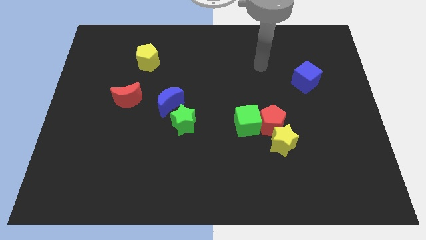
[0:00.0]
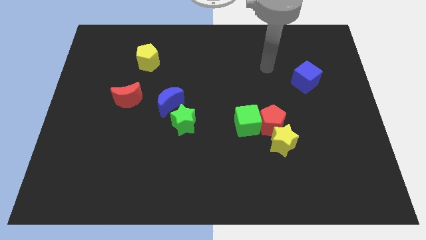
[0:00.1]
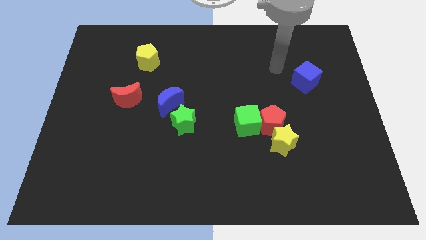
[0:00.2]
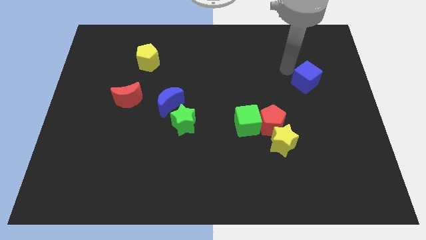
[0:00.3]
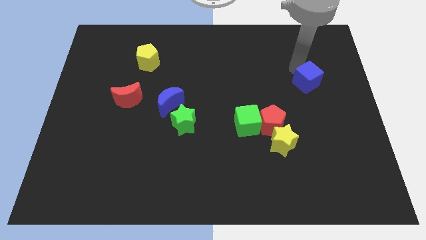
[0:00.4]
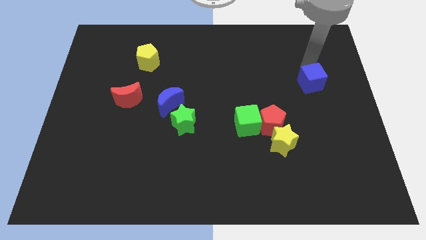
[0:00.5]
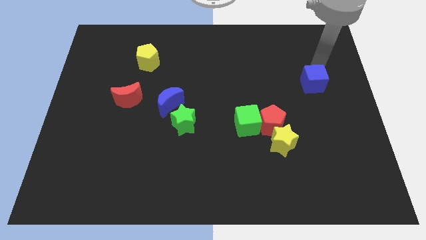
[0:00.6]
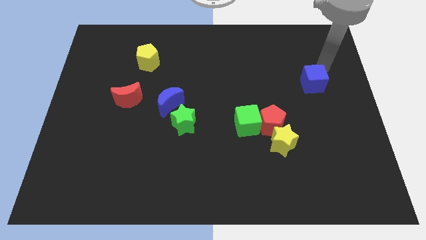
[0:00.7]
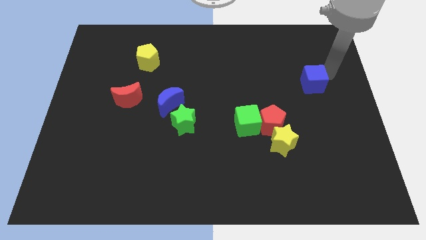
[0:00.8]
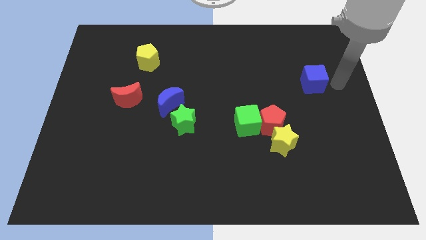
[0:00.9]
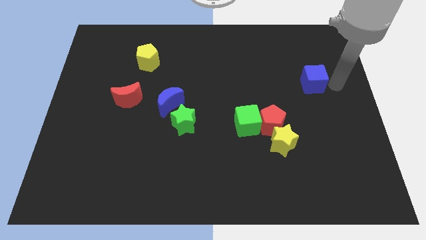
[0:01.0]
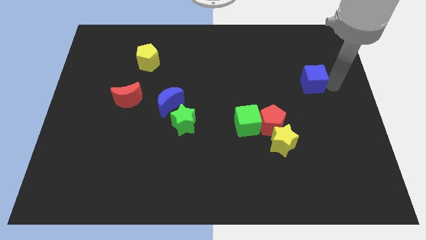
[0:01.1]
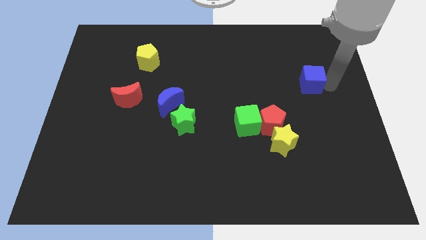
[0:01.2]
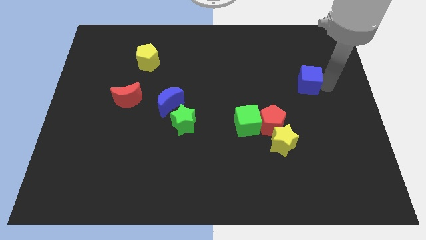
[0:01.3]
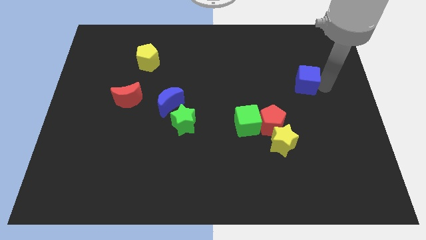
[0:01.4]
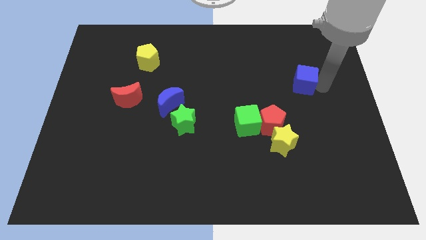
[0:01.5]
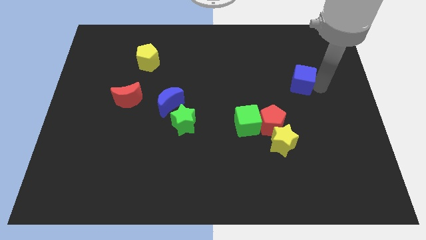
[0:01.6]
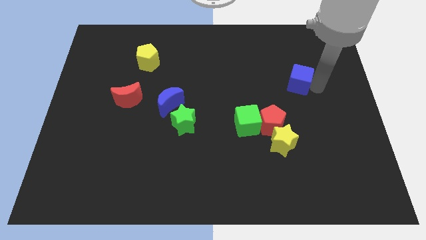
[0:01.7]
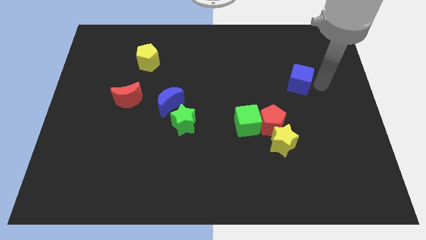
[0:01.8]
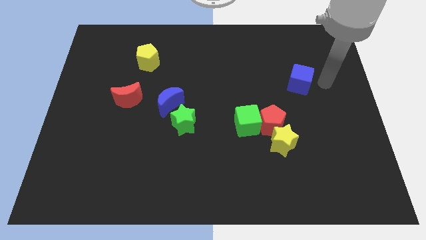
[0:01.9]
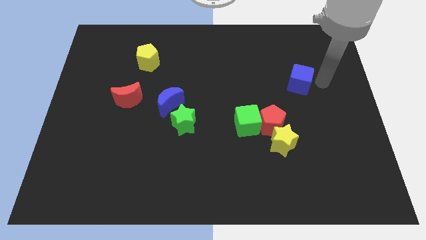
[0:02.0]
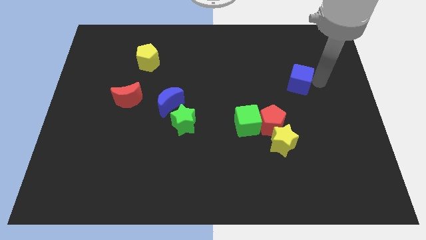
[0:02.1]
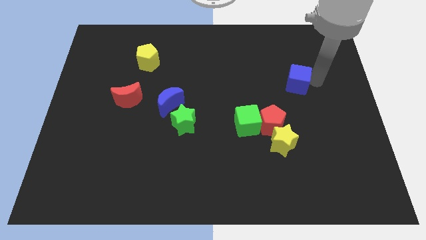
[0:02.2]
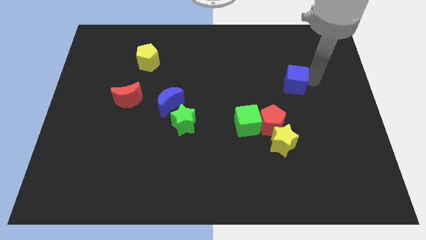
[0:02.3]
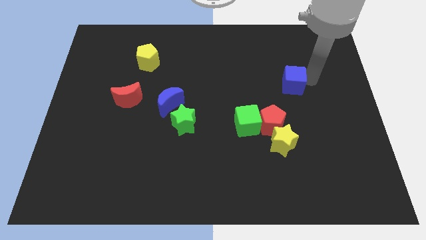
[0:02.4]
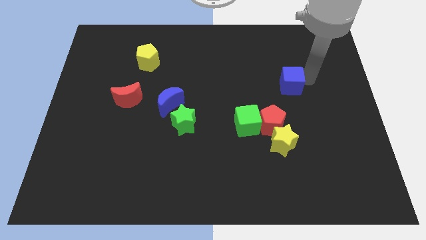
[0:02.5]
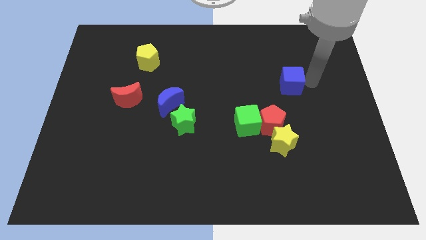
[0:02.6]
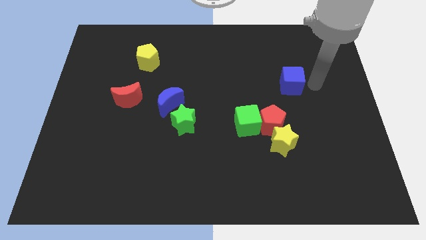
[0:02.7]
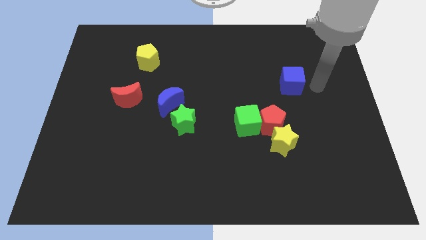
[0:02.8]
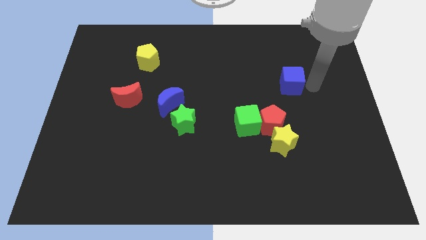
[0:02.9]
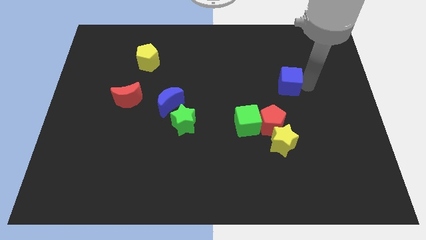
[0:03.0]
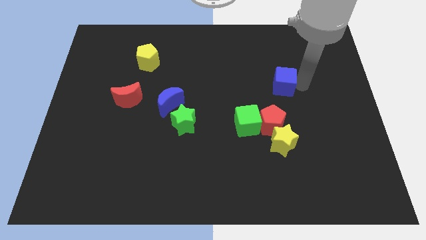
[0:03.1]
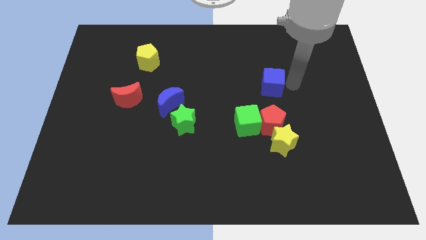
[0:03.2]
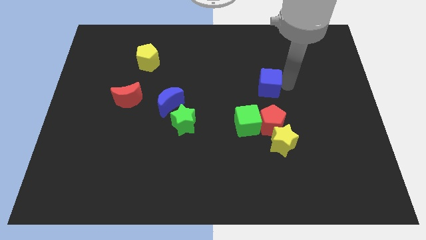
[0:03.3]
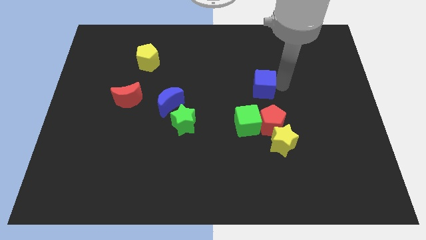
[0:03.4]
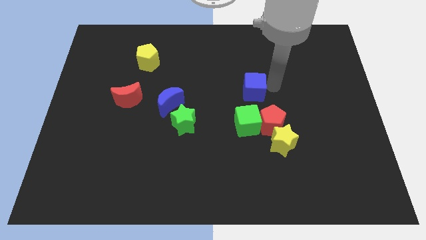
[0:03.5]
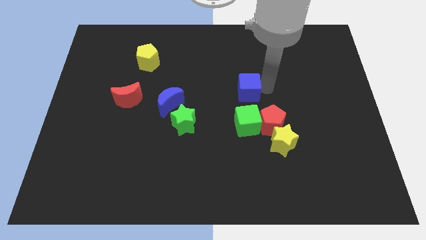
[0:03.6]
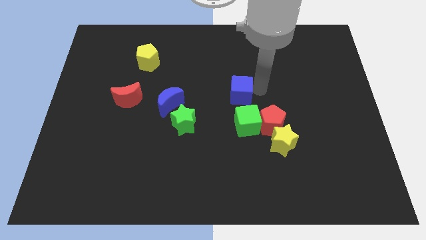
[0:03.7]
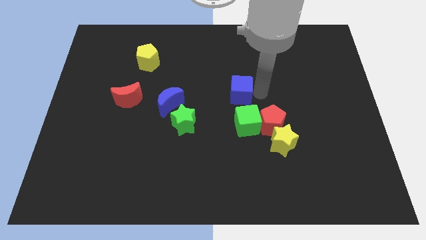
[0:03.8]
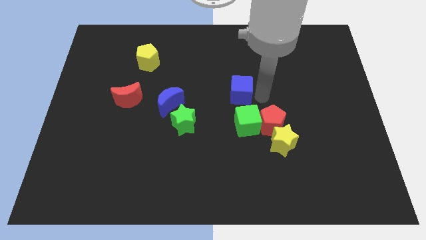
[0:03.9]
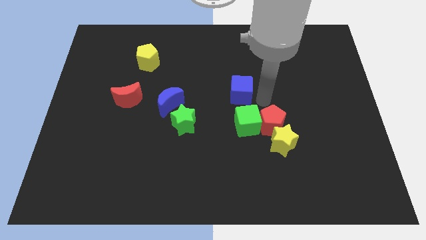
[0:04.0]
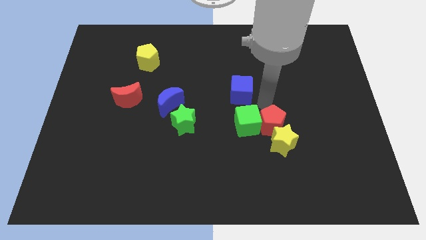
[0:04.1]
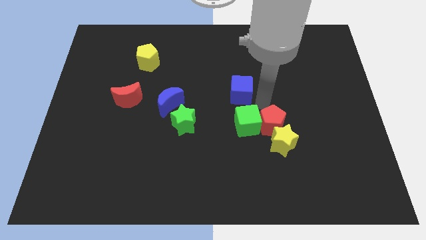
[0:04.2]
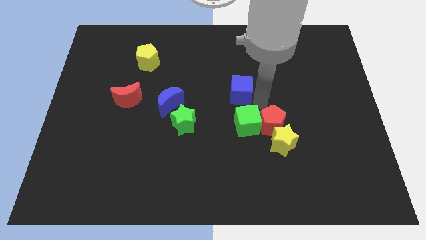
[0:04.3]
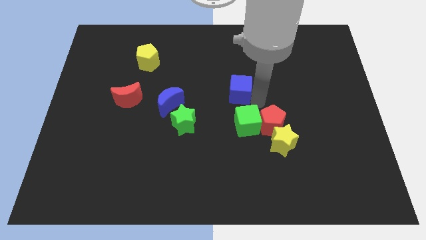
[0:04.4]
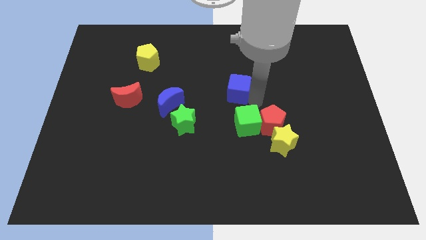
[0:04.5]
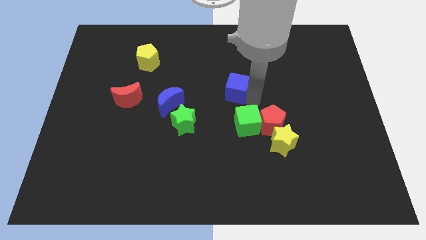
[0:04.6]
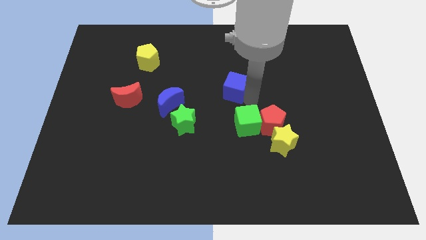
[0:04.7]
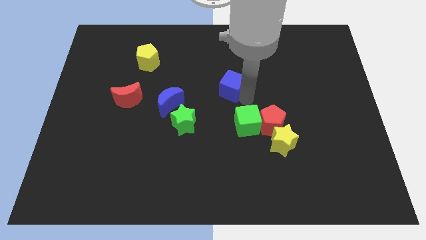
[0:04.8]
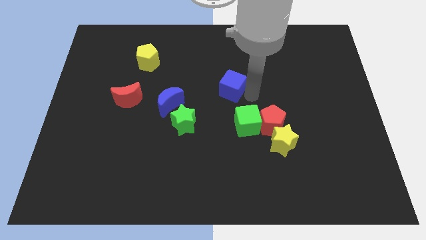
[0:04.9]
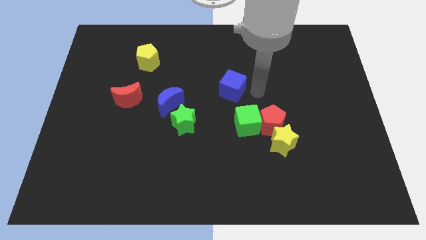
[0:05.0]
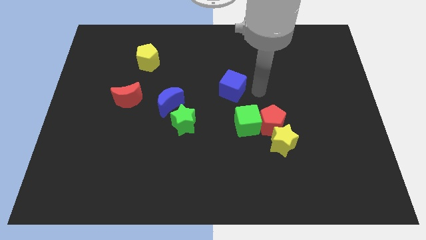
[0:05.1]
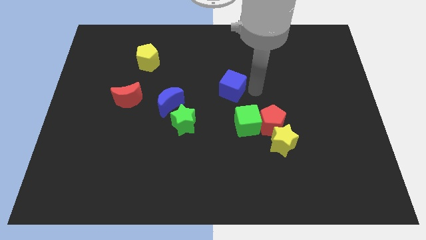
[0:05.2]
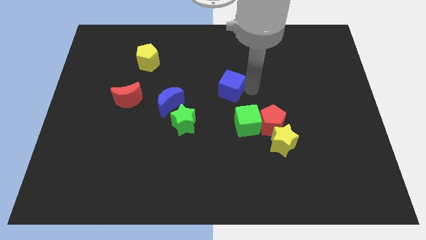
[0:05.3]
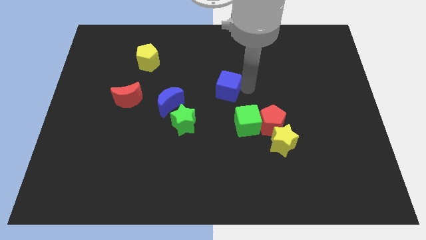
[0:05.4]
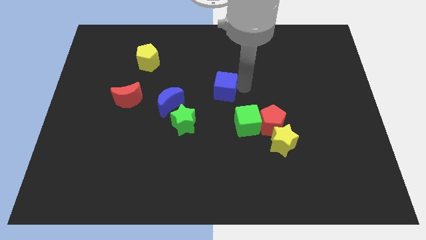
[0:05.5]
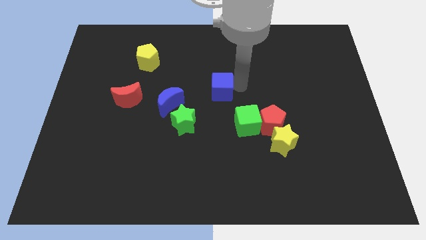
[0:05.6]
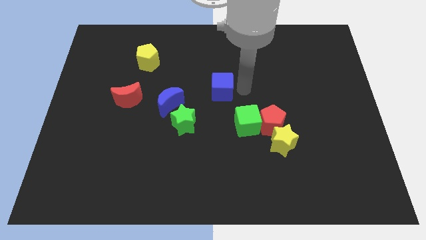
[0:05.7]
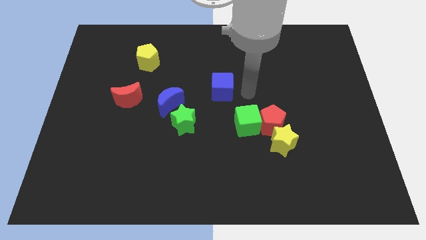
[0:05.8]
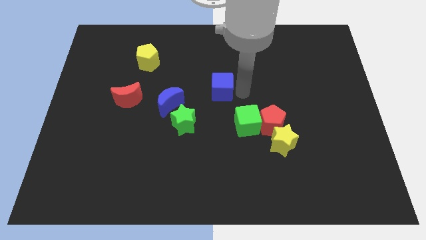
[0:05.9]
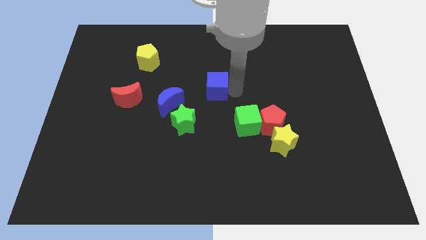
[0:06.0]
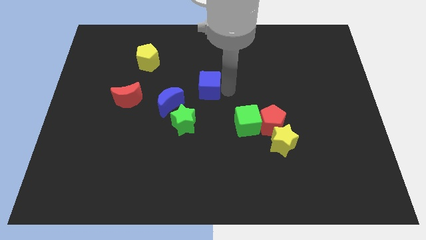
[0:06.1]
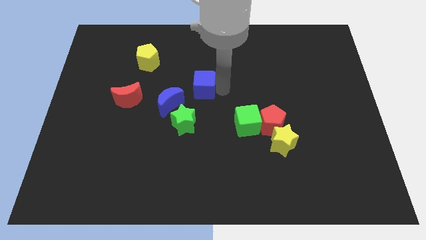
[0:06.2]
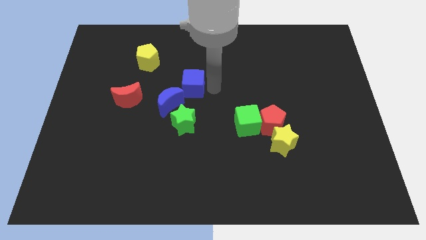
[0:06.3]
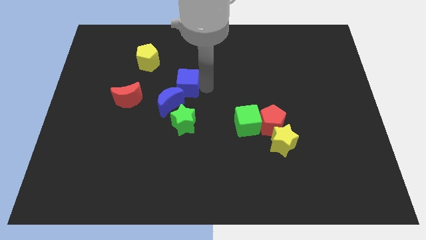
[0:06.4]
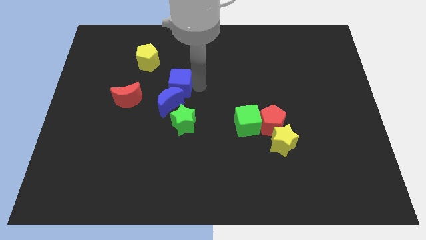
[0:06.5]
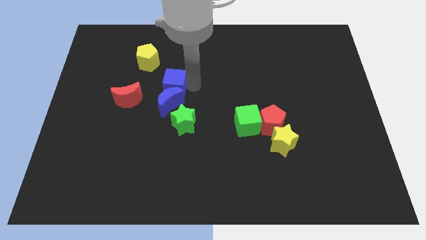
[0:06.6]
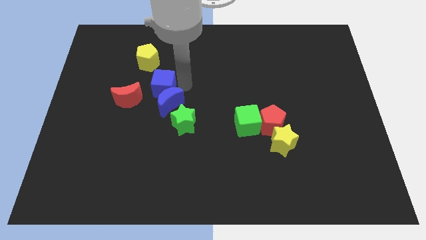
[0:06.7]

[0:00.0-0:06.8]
slide the blue cube below the yellow pentagon
